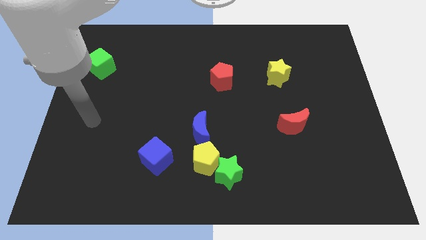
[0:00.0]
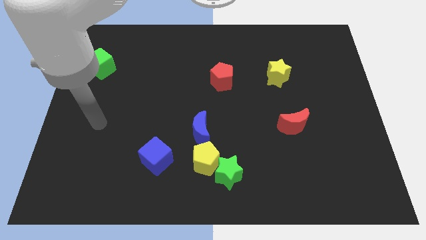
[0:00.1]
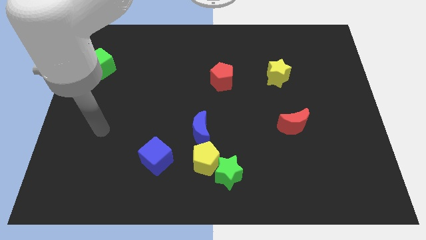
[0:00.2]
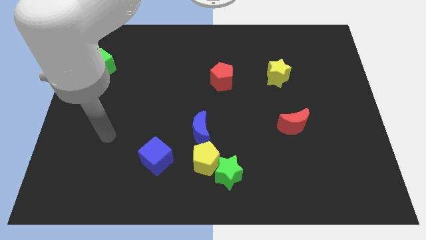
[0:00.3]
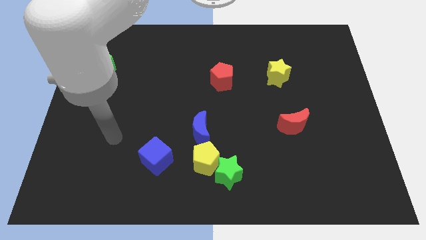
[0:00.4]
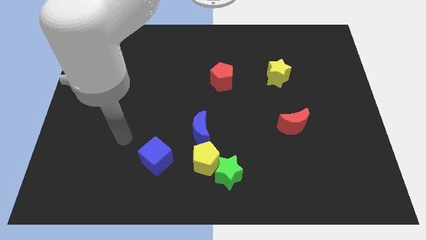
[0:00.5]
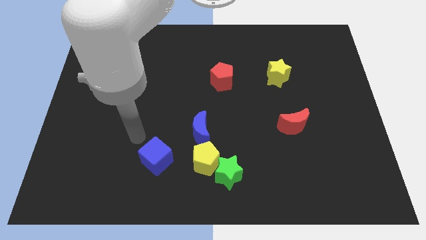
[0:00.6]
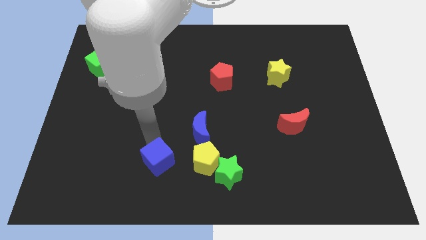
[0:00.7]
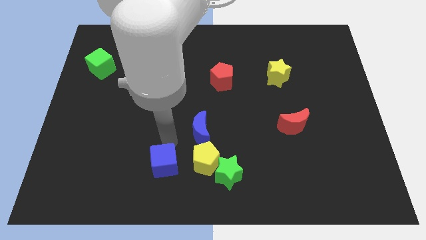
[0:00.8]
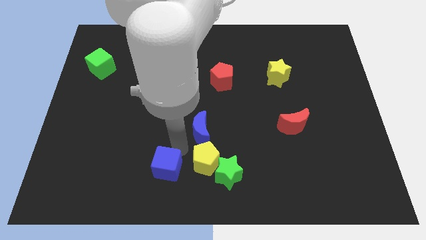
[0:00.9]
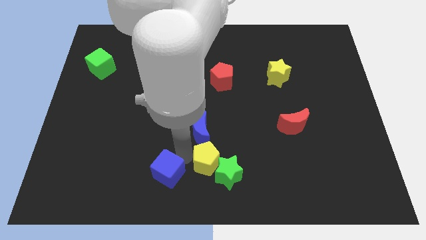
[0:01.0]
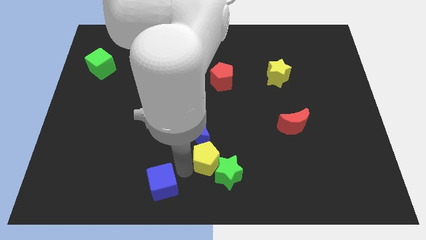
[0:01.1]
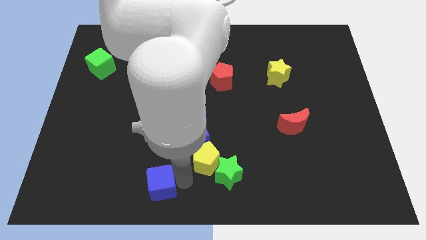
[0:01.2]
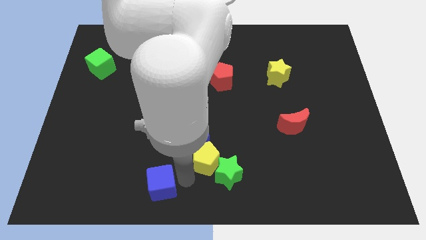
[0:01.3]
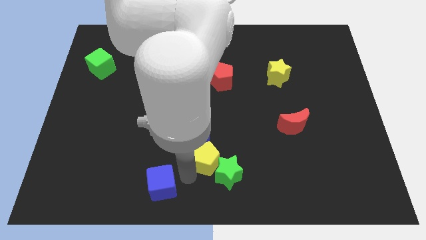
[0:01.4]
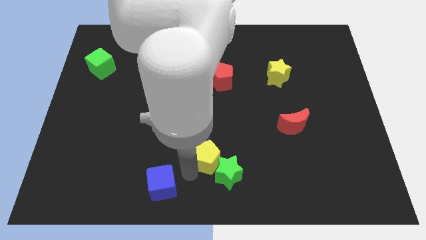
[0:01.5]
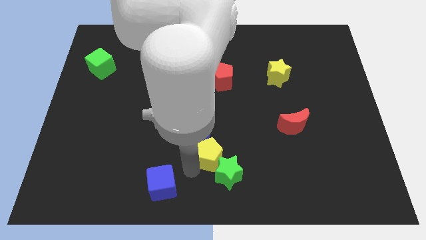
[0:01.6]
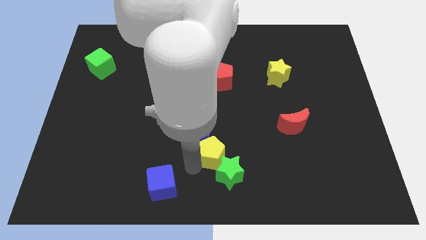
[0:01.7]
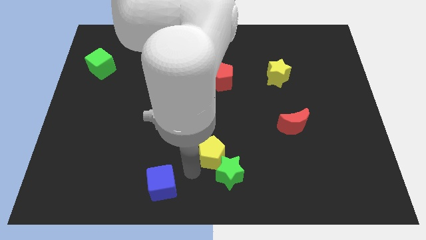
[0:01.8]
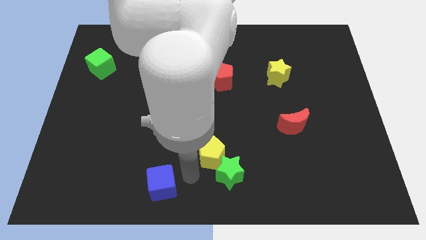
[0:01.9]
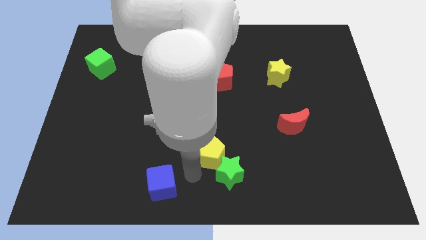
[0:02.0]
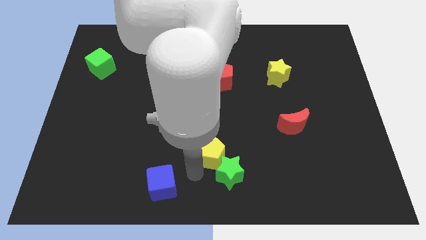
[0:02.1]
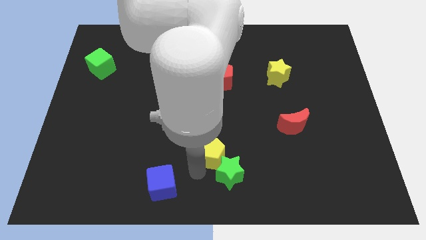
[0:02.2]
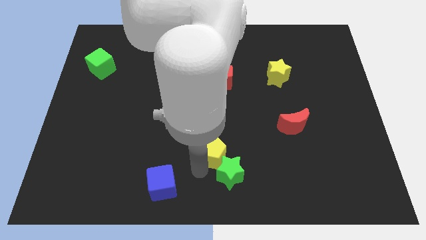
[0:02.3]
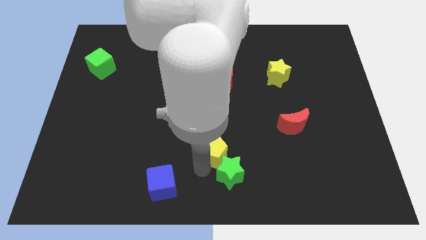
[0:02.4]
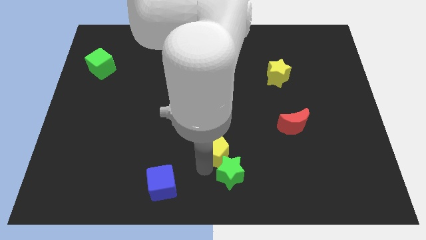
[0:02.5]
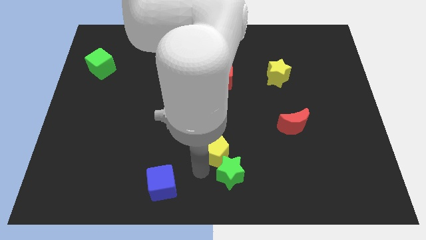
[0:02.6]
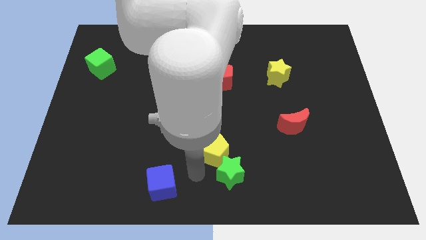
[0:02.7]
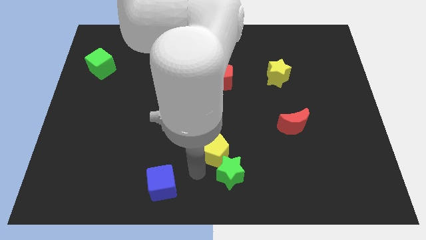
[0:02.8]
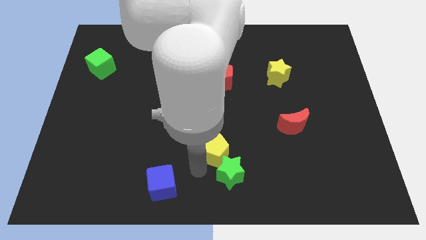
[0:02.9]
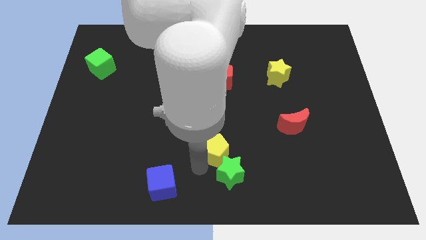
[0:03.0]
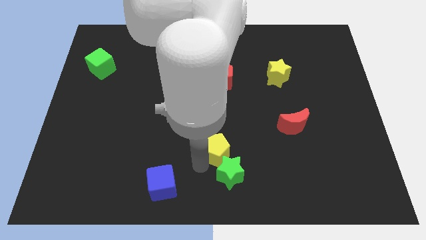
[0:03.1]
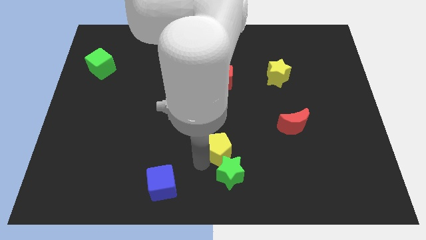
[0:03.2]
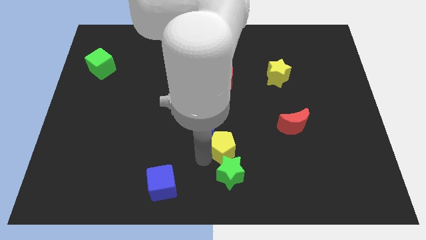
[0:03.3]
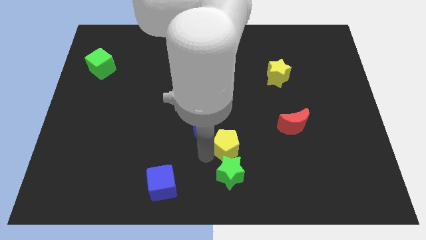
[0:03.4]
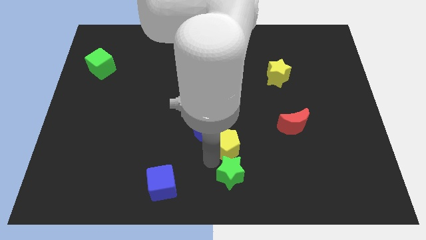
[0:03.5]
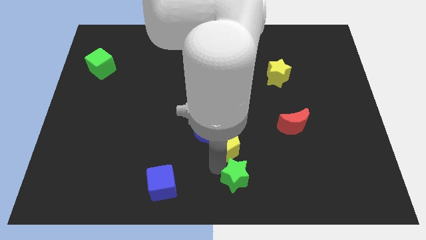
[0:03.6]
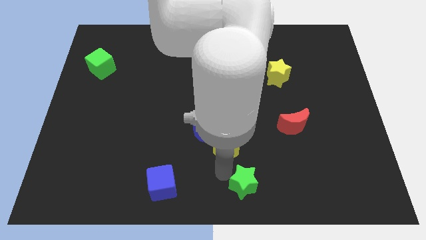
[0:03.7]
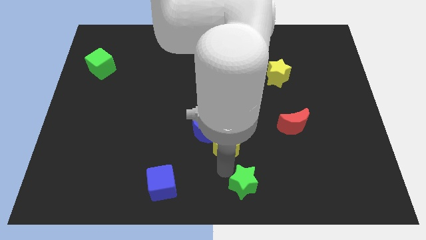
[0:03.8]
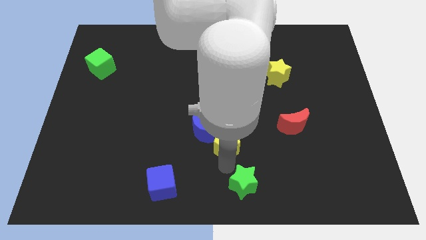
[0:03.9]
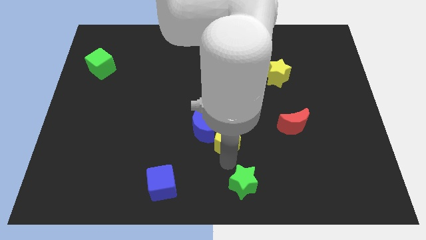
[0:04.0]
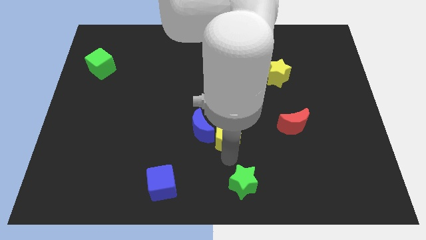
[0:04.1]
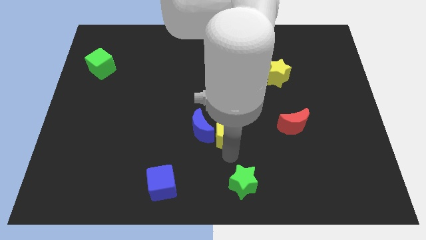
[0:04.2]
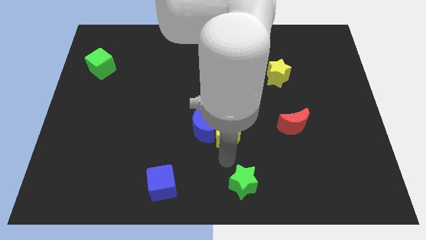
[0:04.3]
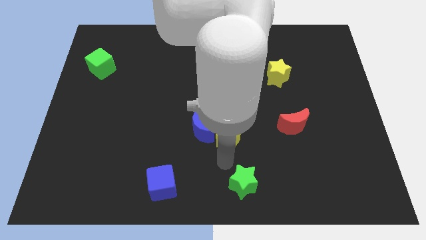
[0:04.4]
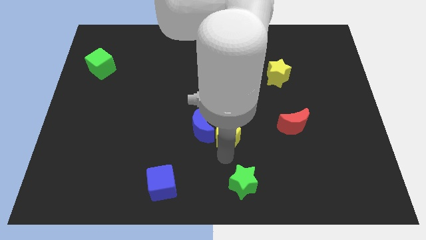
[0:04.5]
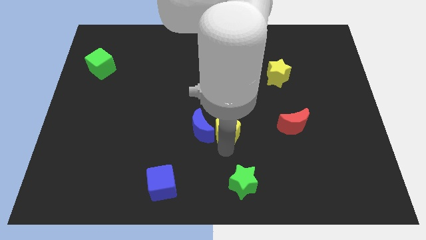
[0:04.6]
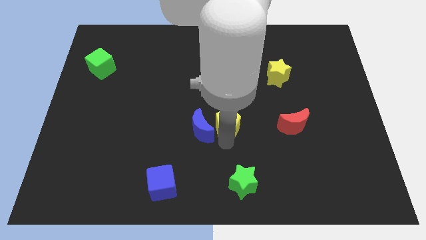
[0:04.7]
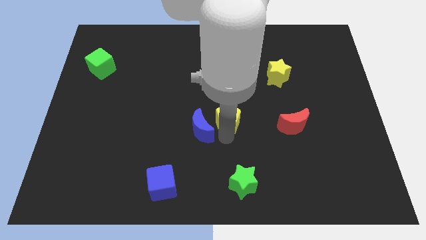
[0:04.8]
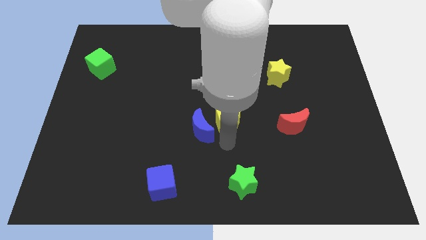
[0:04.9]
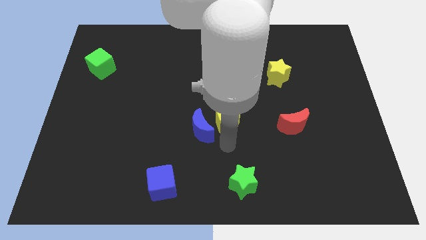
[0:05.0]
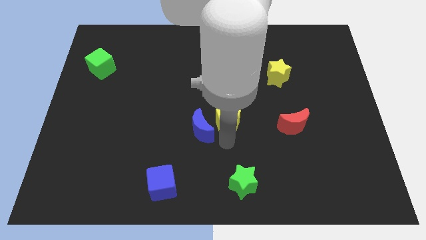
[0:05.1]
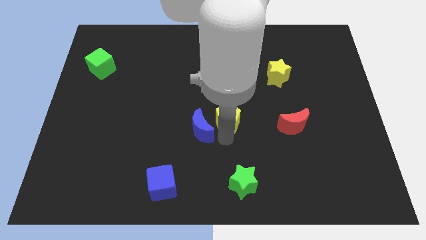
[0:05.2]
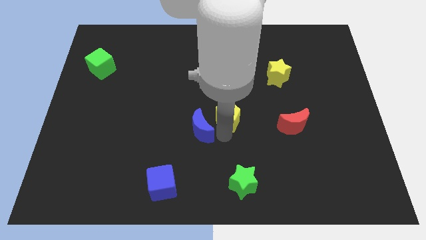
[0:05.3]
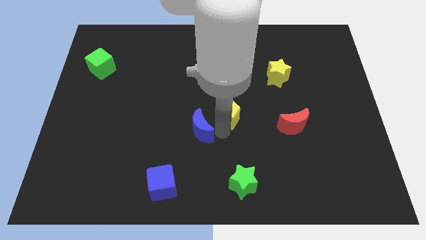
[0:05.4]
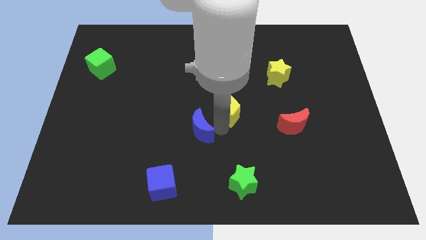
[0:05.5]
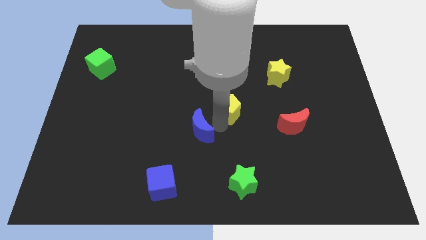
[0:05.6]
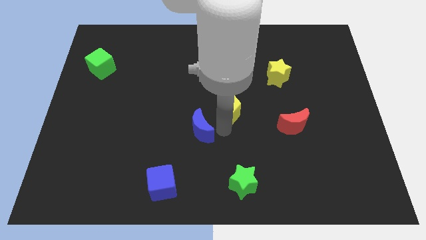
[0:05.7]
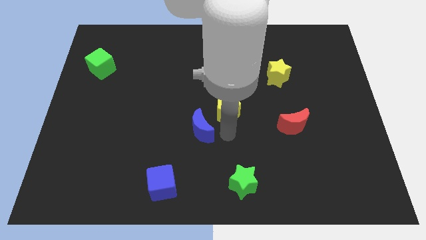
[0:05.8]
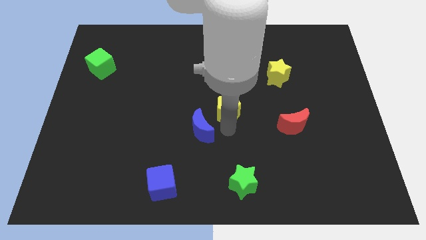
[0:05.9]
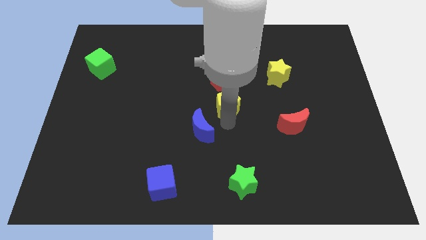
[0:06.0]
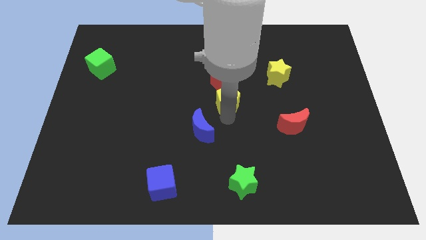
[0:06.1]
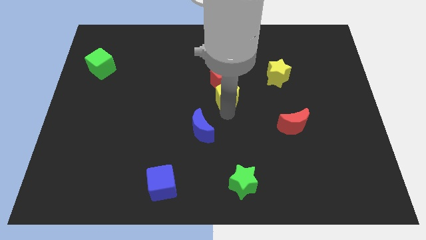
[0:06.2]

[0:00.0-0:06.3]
put the yellow pentagon towards the red pentagon

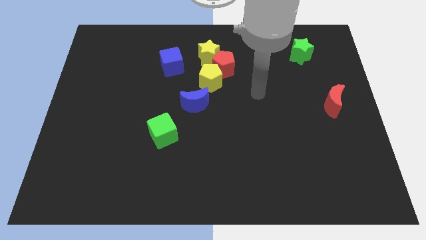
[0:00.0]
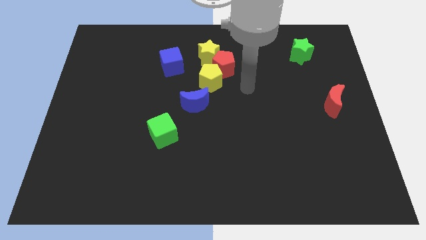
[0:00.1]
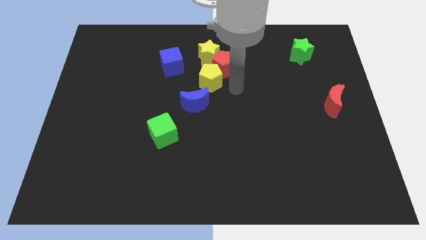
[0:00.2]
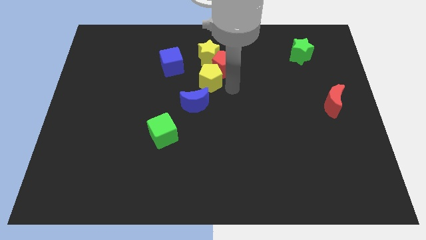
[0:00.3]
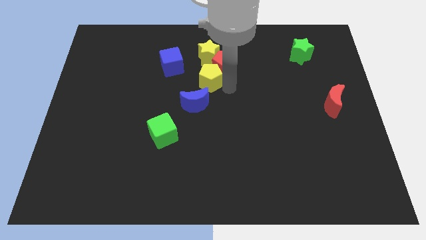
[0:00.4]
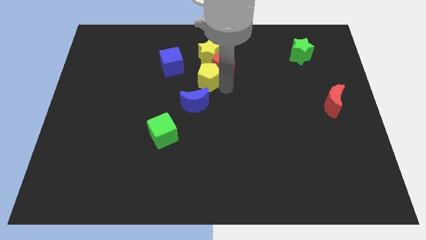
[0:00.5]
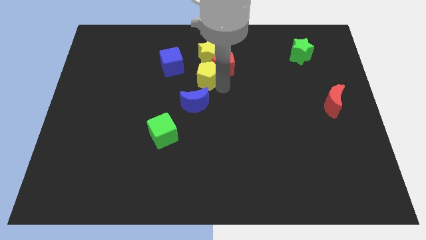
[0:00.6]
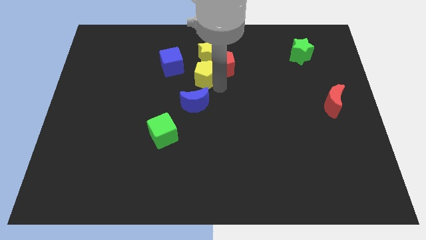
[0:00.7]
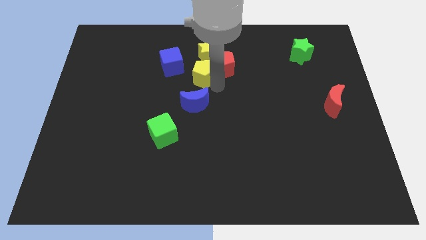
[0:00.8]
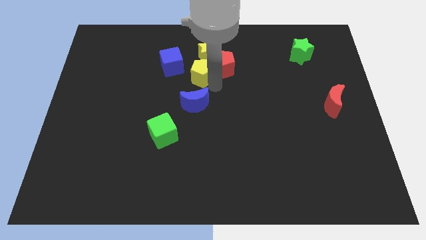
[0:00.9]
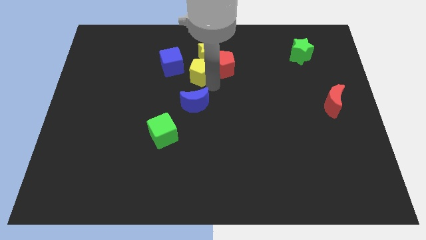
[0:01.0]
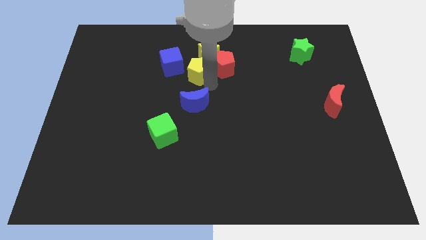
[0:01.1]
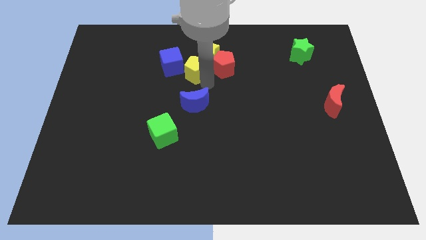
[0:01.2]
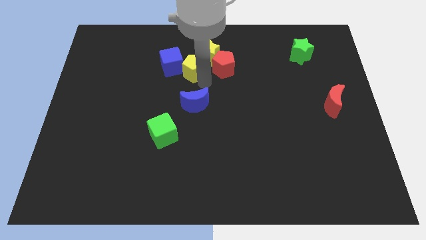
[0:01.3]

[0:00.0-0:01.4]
slide the yellow pentagon close to the blue cube

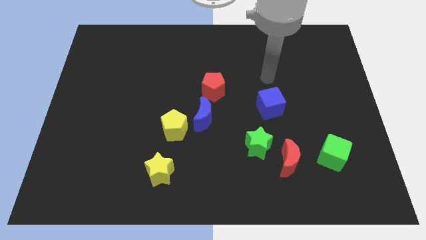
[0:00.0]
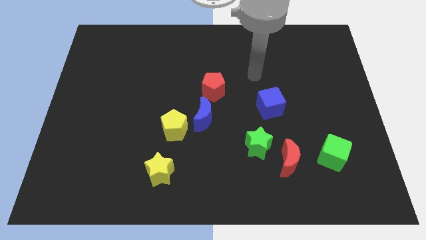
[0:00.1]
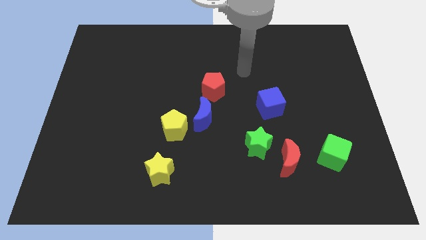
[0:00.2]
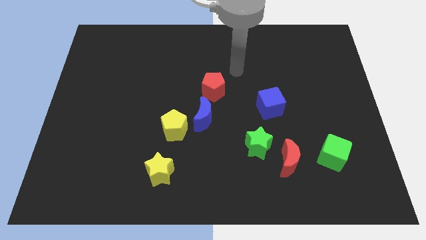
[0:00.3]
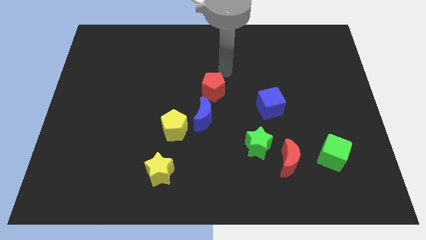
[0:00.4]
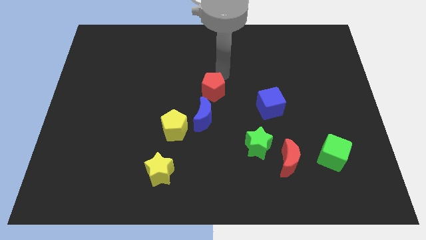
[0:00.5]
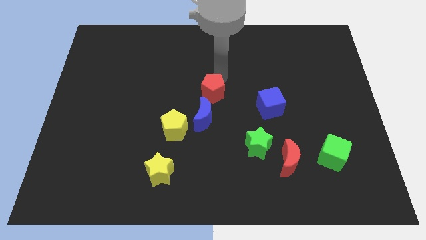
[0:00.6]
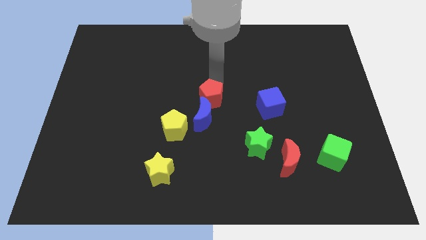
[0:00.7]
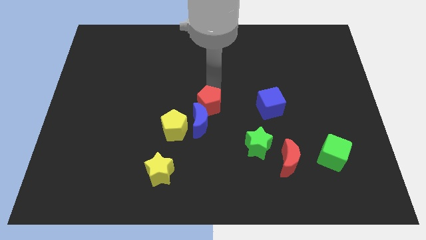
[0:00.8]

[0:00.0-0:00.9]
slide the red pentagon next to the blue moon
